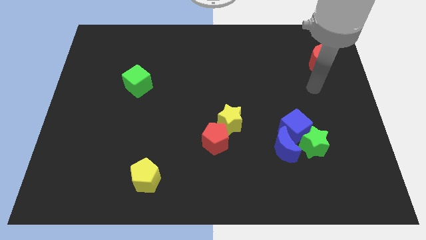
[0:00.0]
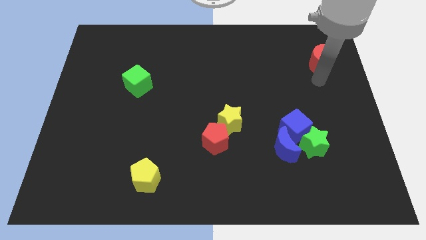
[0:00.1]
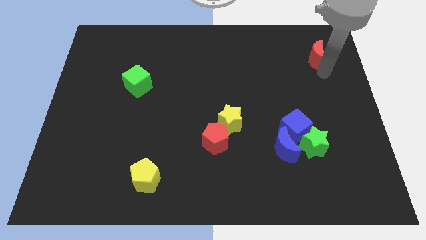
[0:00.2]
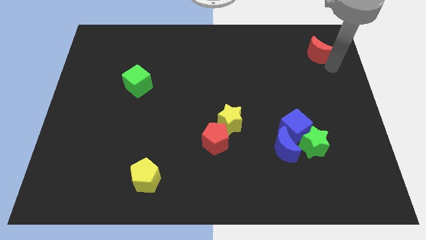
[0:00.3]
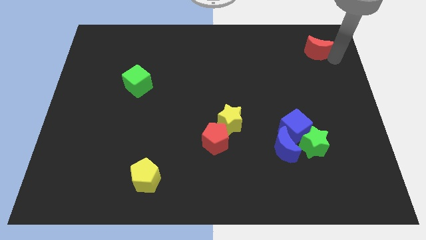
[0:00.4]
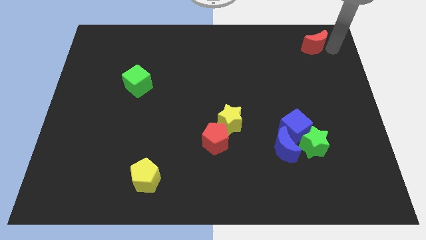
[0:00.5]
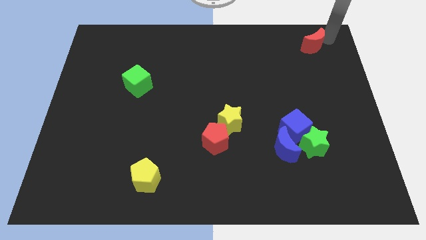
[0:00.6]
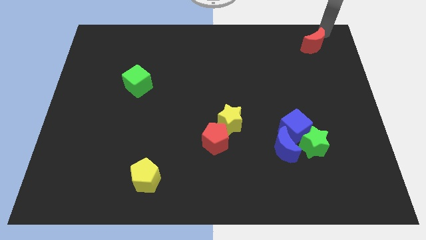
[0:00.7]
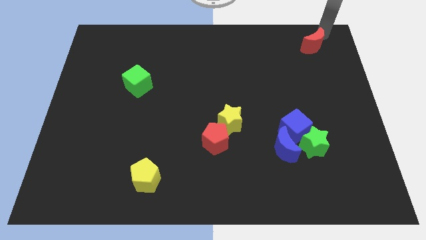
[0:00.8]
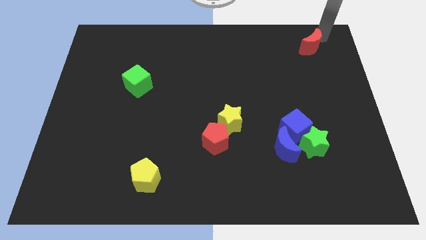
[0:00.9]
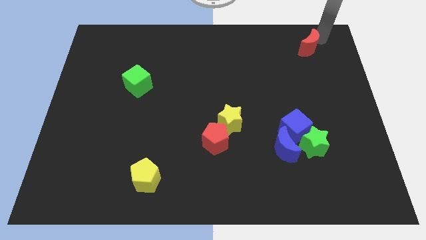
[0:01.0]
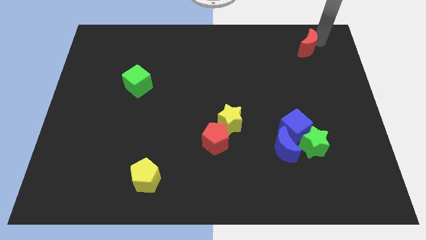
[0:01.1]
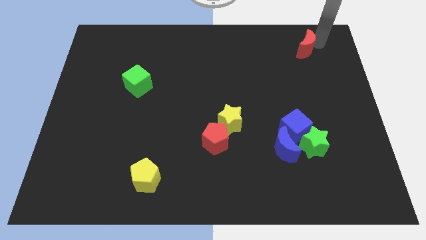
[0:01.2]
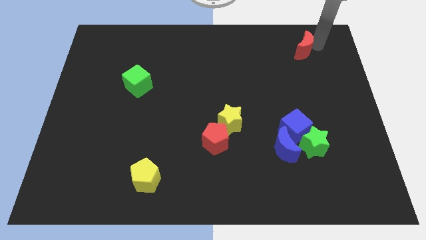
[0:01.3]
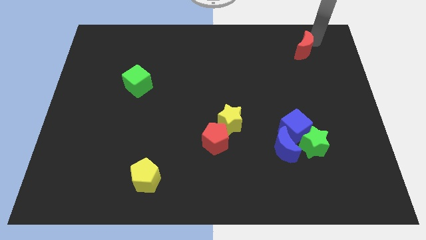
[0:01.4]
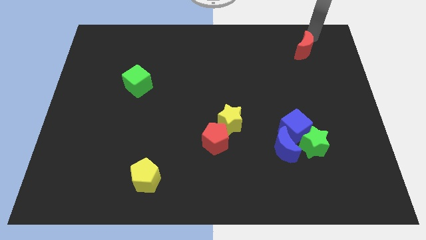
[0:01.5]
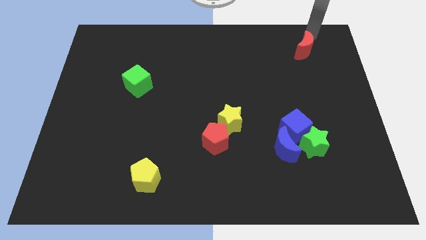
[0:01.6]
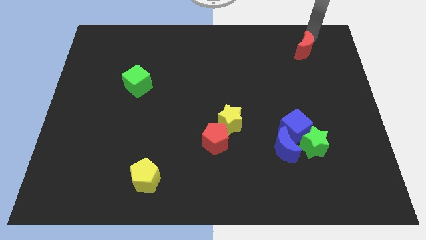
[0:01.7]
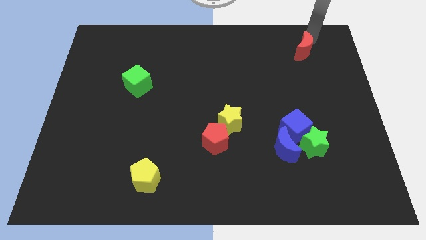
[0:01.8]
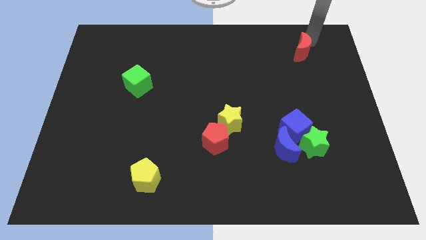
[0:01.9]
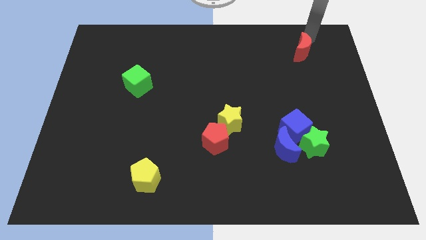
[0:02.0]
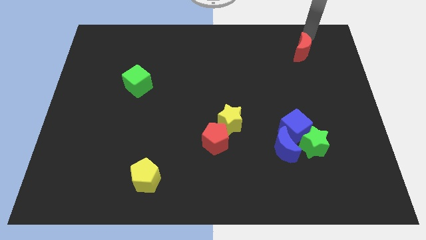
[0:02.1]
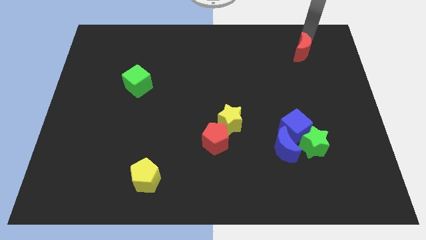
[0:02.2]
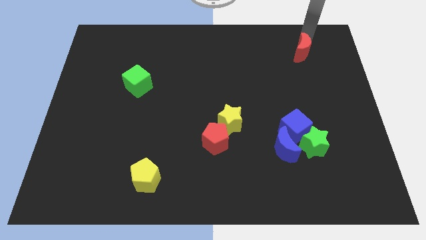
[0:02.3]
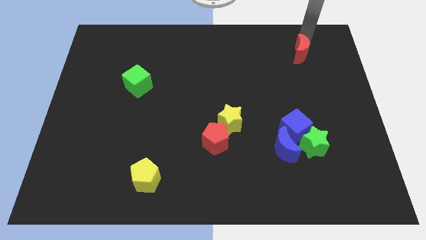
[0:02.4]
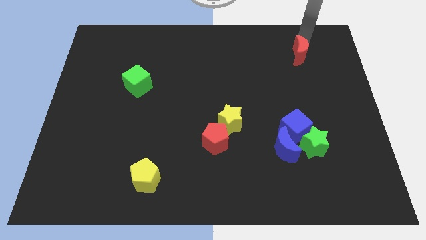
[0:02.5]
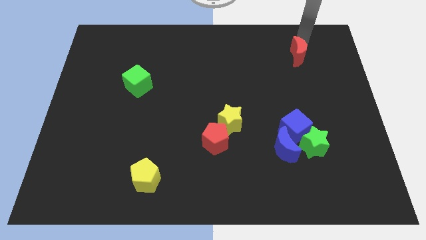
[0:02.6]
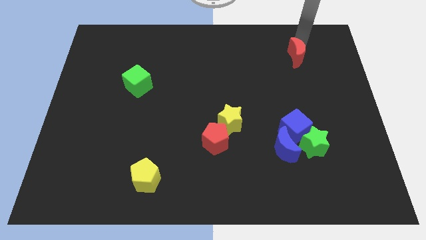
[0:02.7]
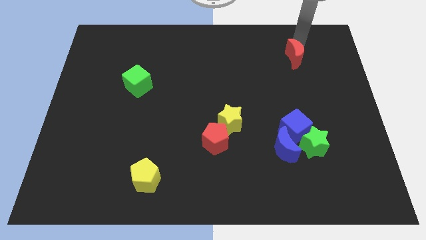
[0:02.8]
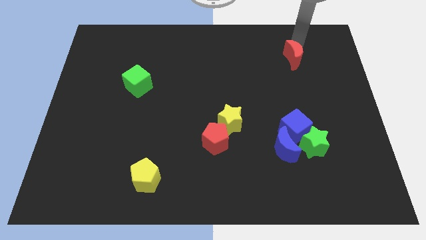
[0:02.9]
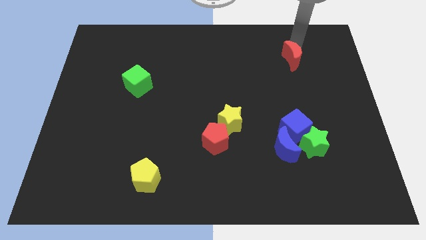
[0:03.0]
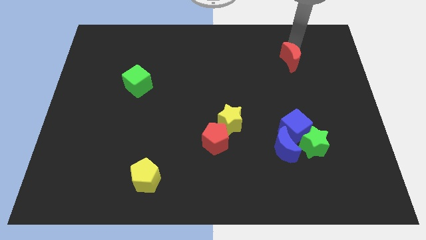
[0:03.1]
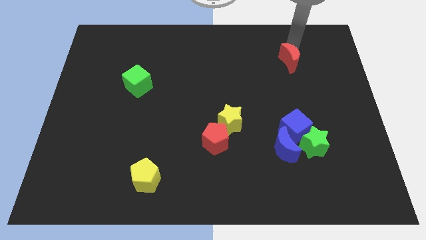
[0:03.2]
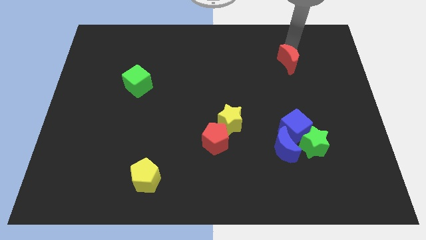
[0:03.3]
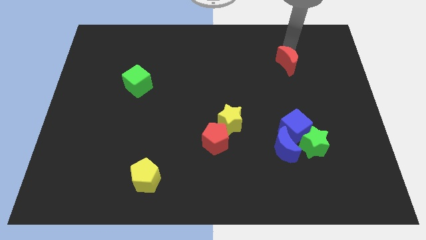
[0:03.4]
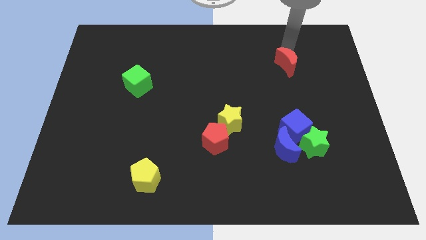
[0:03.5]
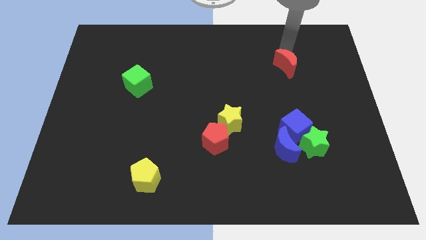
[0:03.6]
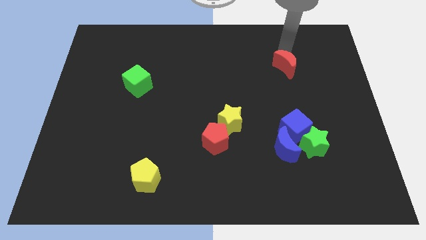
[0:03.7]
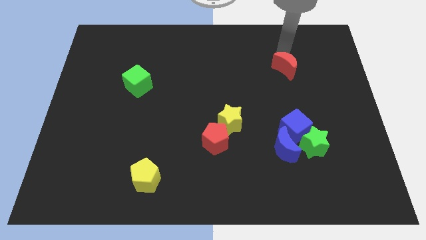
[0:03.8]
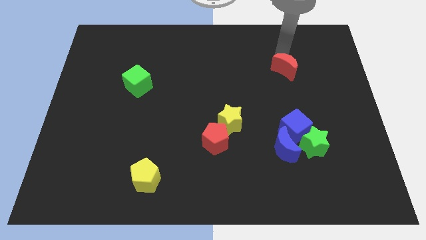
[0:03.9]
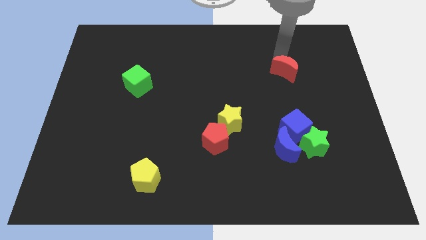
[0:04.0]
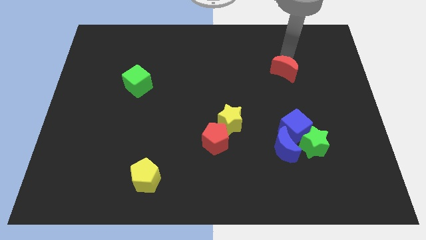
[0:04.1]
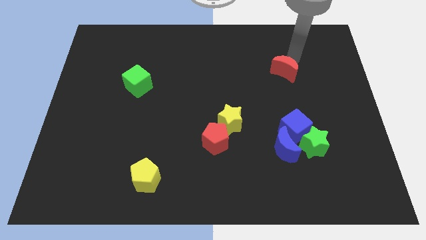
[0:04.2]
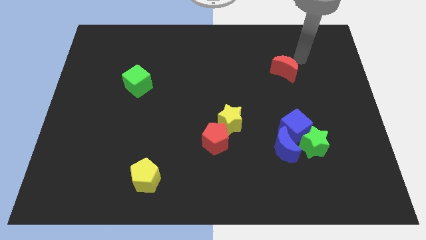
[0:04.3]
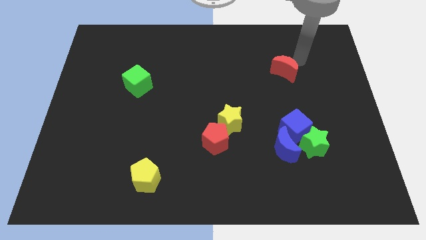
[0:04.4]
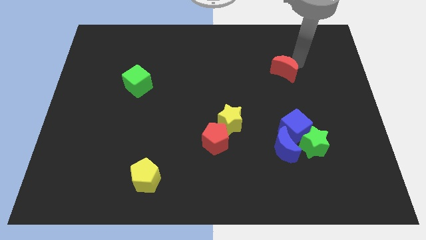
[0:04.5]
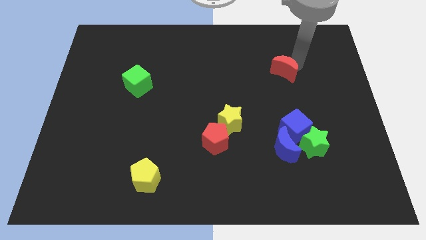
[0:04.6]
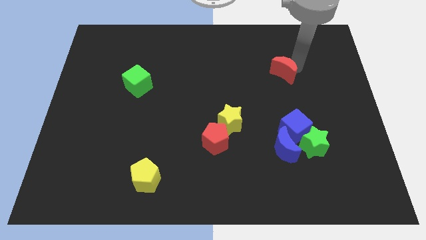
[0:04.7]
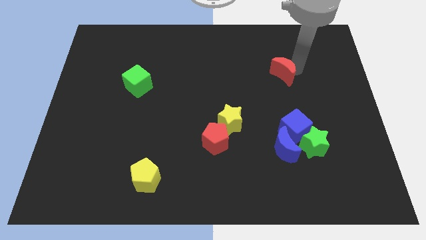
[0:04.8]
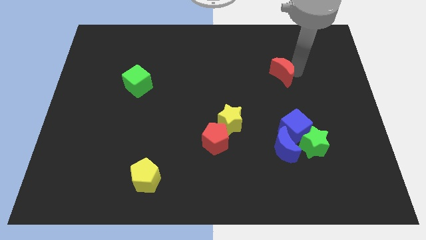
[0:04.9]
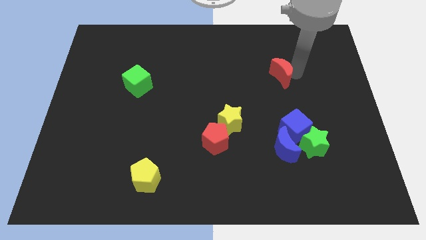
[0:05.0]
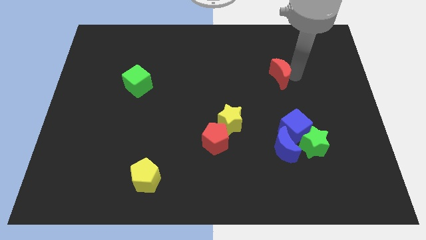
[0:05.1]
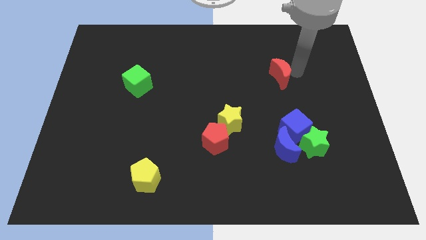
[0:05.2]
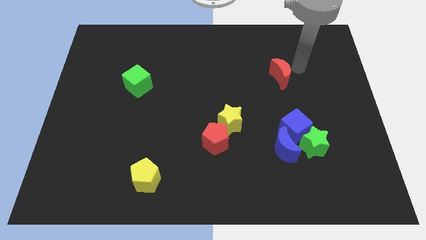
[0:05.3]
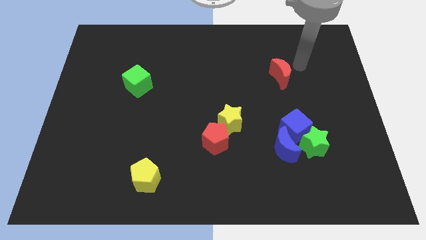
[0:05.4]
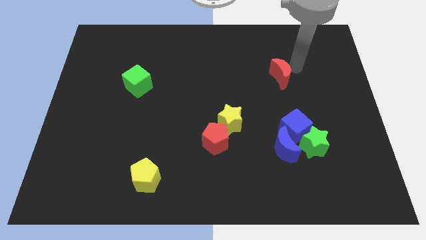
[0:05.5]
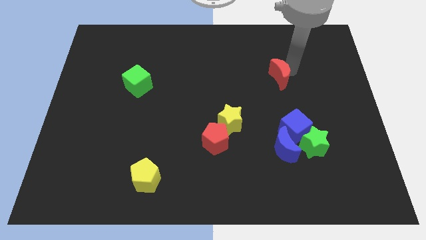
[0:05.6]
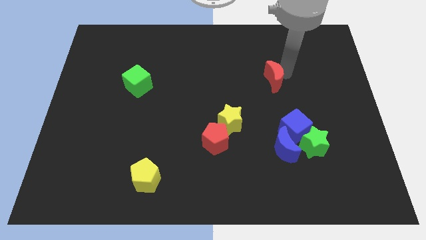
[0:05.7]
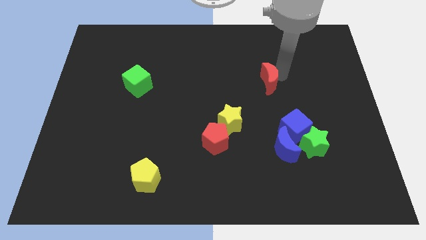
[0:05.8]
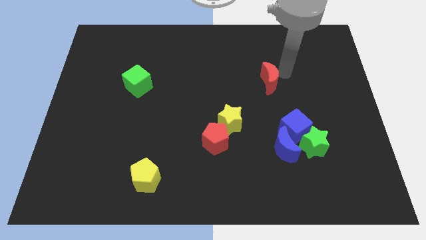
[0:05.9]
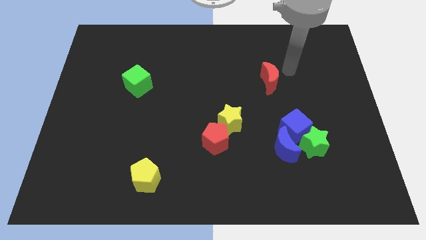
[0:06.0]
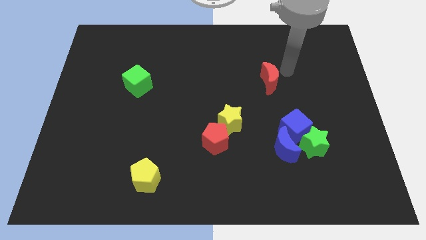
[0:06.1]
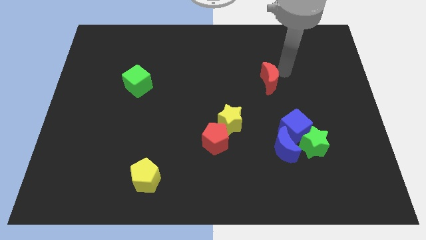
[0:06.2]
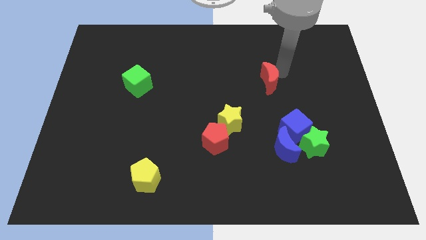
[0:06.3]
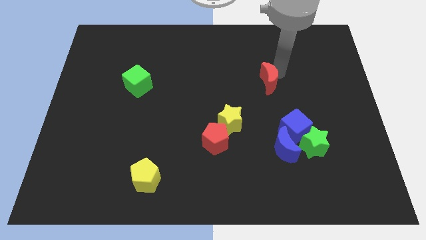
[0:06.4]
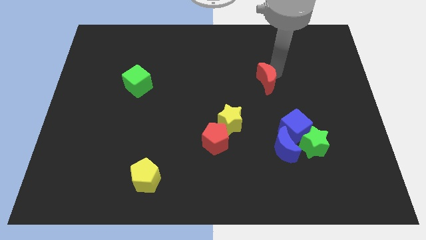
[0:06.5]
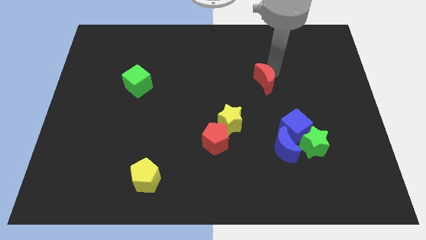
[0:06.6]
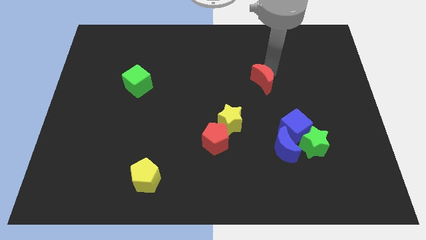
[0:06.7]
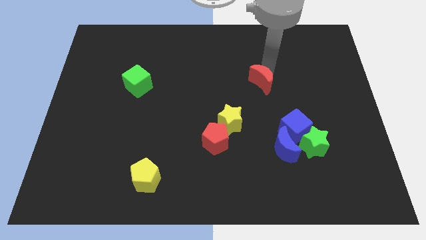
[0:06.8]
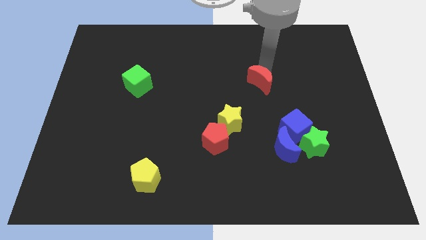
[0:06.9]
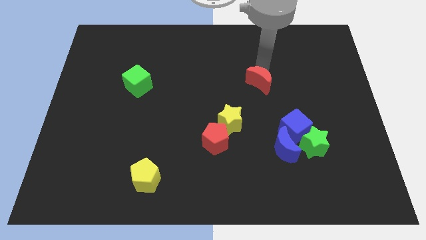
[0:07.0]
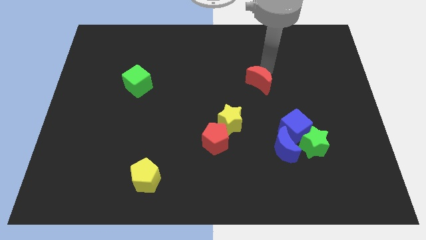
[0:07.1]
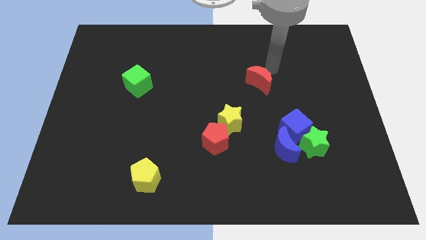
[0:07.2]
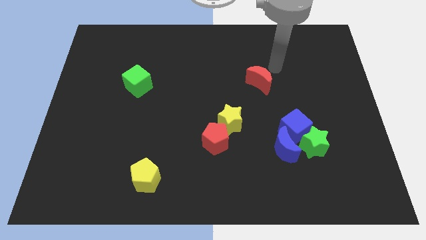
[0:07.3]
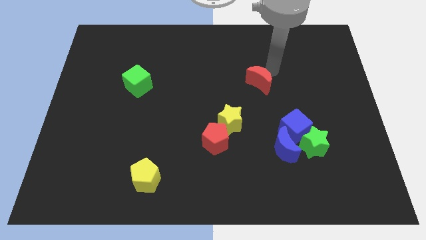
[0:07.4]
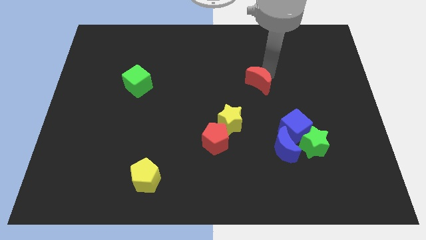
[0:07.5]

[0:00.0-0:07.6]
move the red moon to the middle of the board
